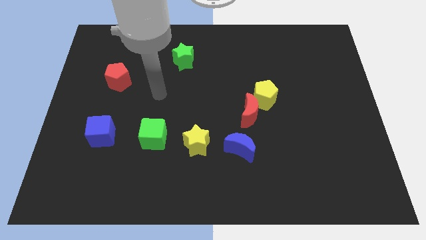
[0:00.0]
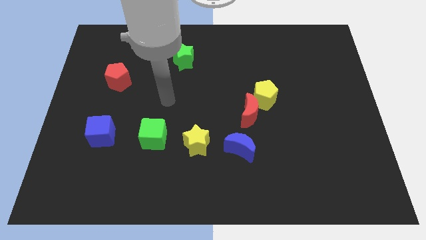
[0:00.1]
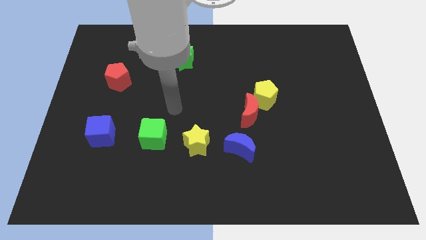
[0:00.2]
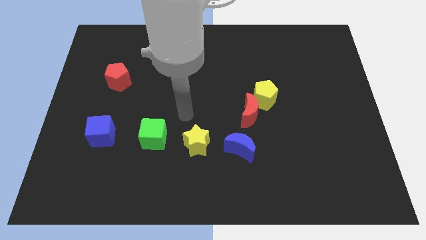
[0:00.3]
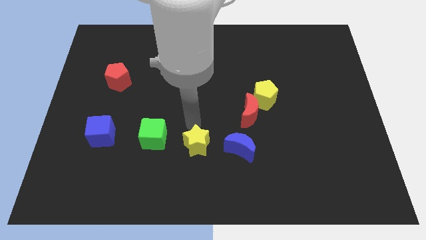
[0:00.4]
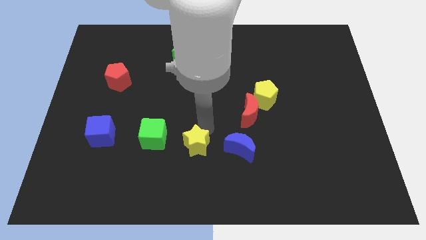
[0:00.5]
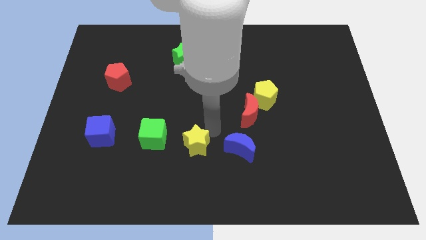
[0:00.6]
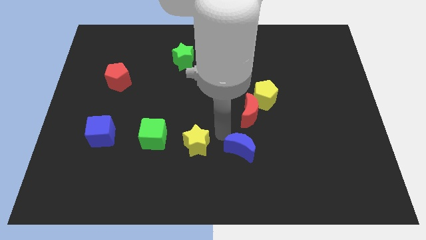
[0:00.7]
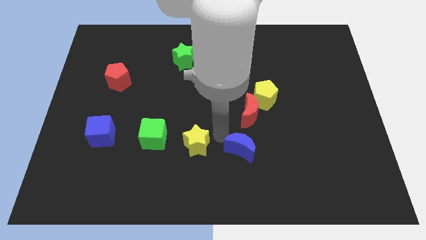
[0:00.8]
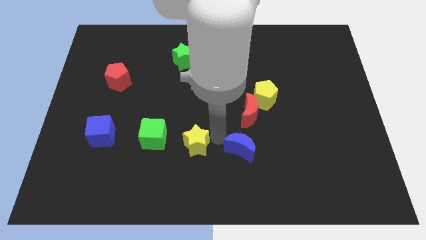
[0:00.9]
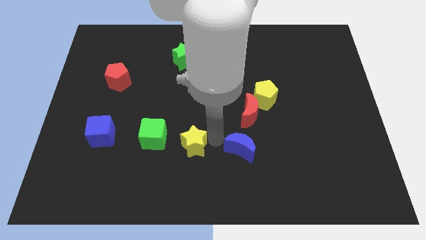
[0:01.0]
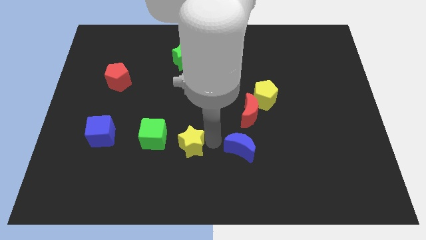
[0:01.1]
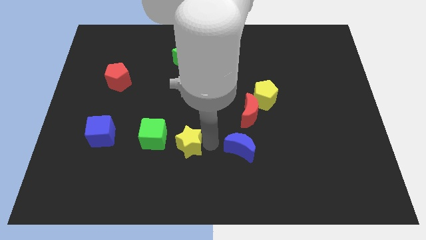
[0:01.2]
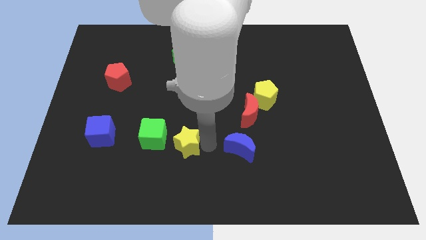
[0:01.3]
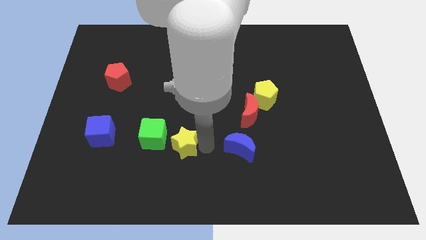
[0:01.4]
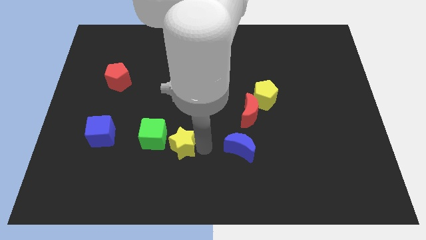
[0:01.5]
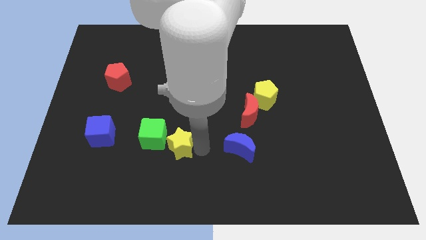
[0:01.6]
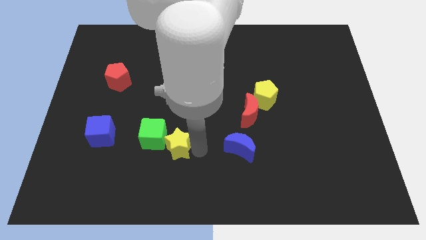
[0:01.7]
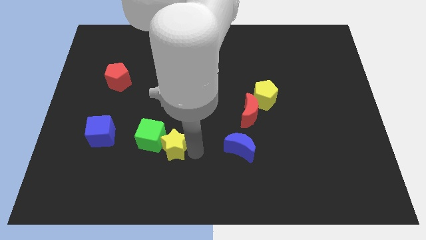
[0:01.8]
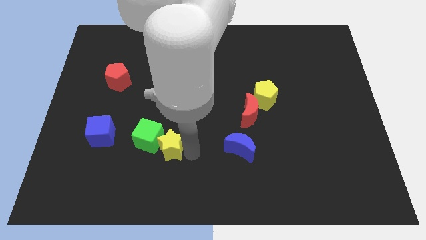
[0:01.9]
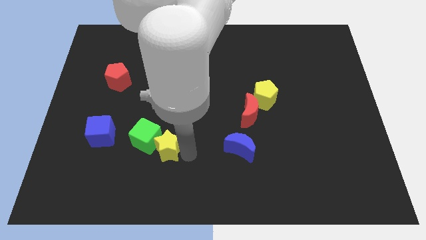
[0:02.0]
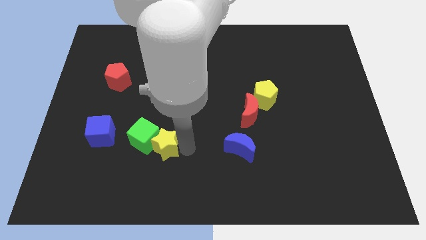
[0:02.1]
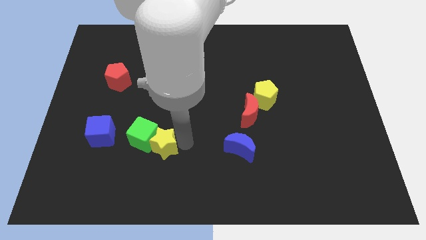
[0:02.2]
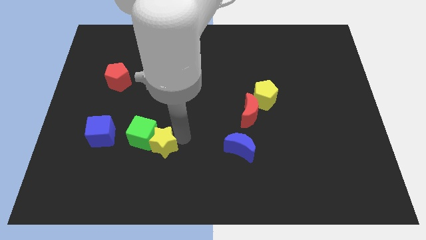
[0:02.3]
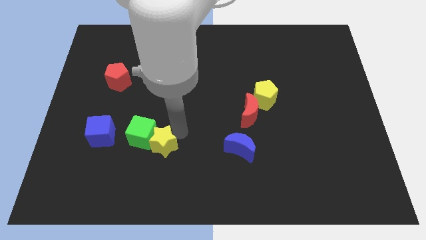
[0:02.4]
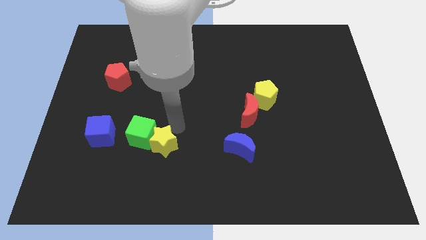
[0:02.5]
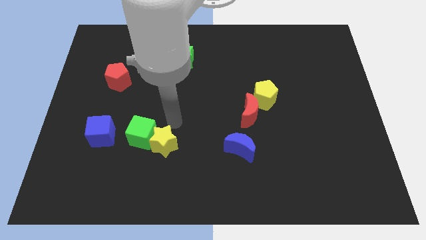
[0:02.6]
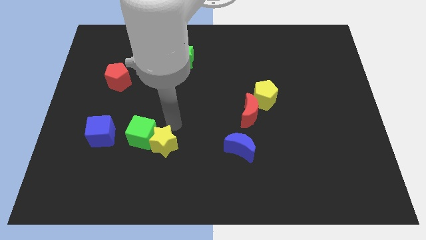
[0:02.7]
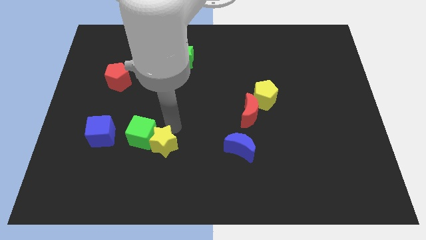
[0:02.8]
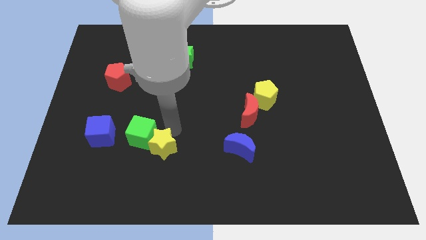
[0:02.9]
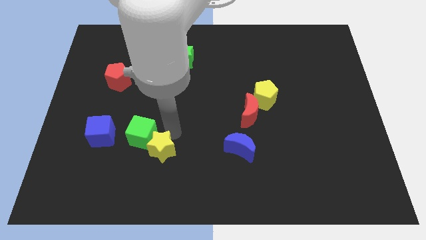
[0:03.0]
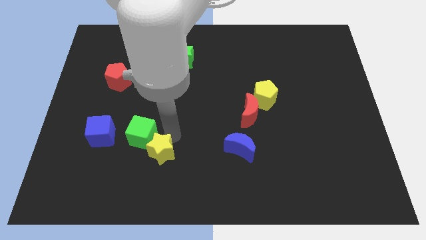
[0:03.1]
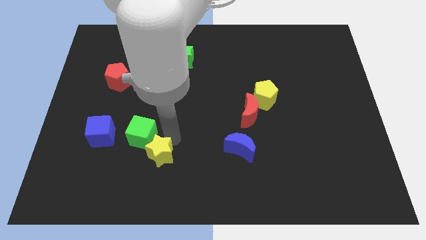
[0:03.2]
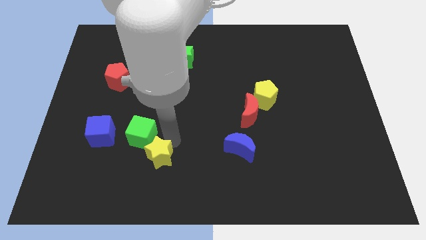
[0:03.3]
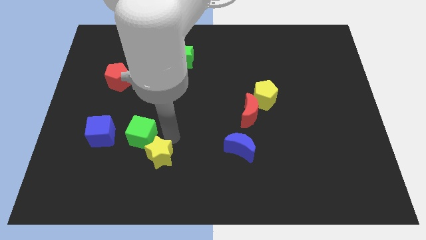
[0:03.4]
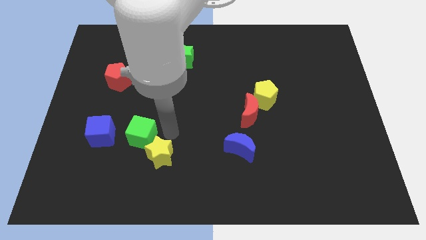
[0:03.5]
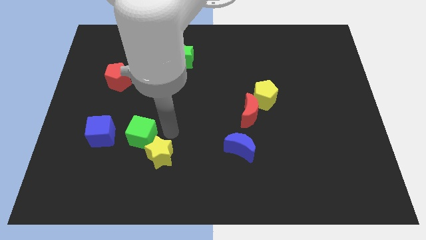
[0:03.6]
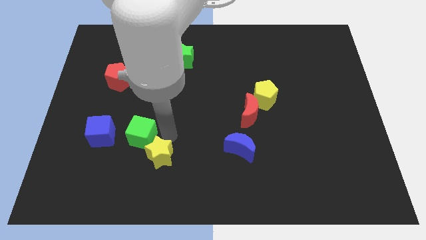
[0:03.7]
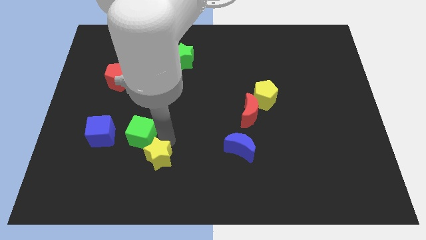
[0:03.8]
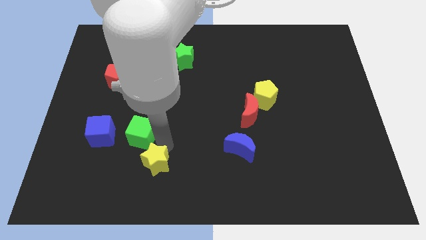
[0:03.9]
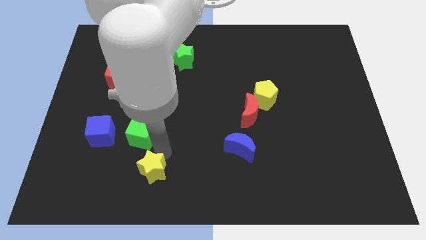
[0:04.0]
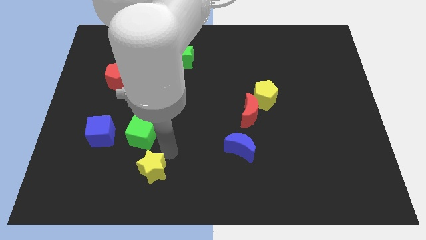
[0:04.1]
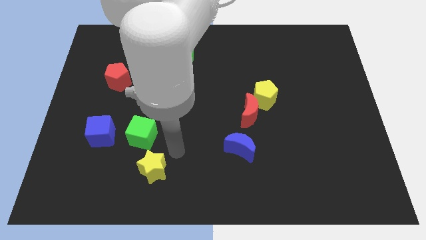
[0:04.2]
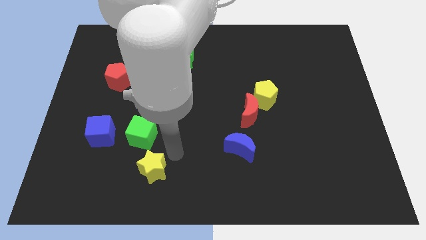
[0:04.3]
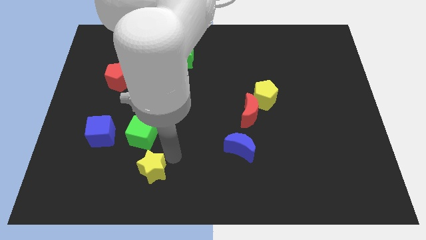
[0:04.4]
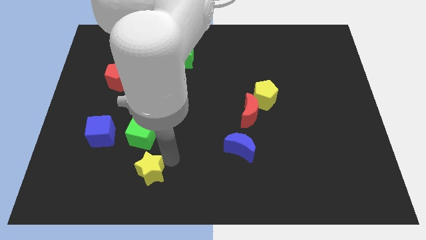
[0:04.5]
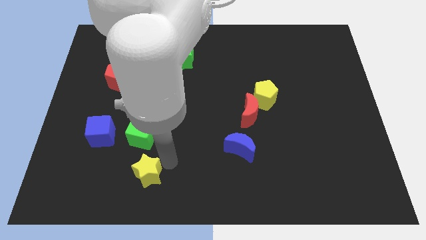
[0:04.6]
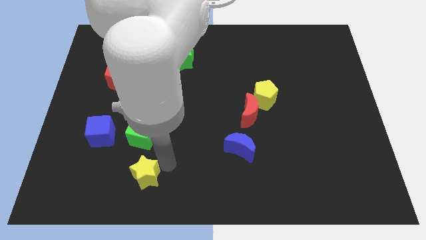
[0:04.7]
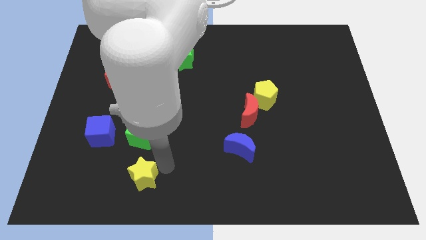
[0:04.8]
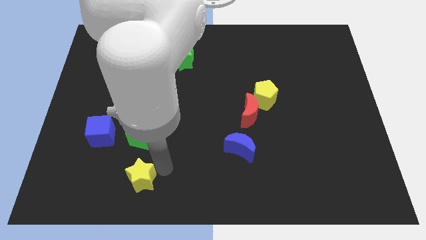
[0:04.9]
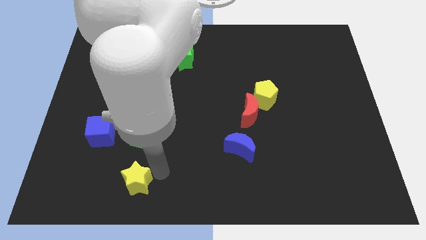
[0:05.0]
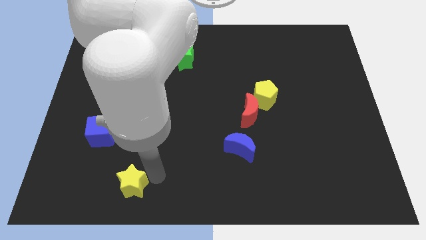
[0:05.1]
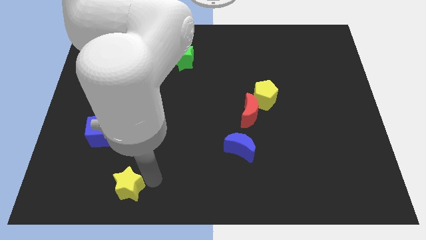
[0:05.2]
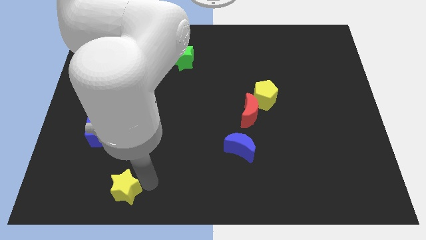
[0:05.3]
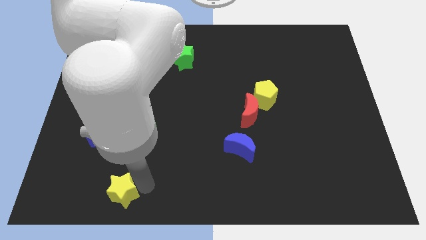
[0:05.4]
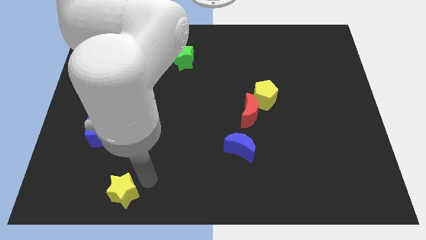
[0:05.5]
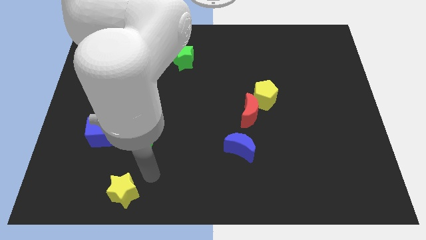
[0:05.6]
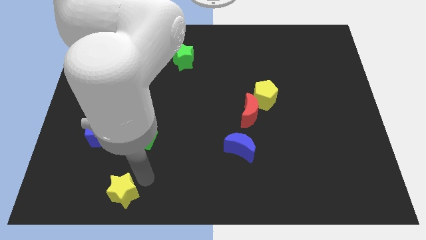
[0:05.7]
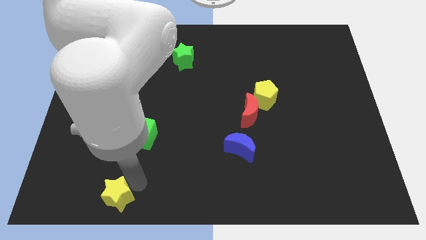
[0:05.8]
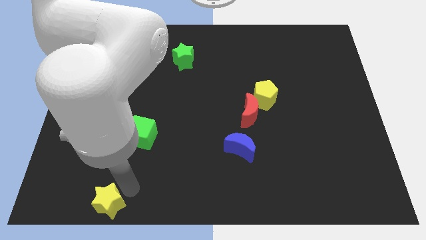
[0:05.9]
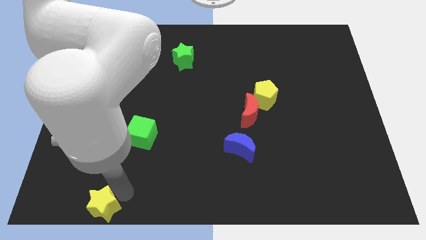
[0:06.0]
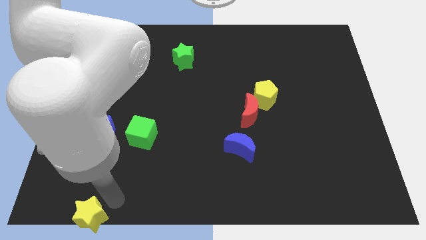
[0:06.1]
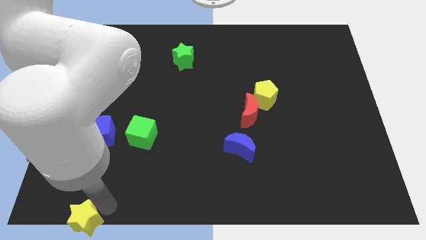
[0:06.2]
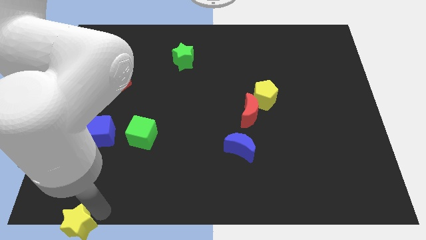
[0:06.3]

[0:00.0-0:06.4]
put the yellow star to the bottom left
